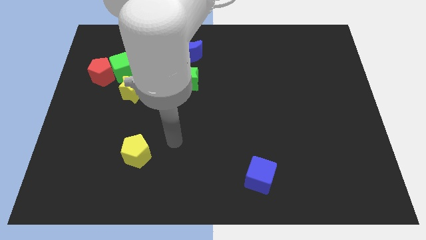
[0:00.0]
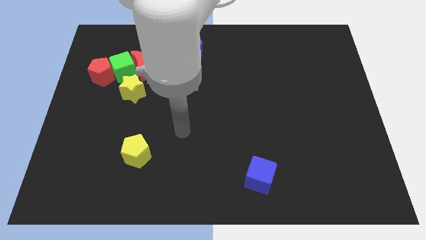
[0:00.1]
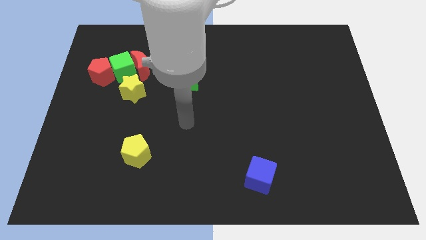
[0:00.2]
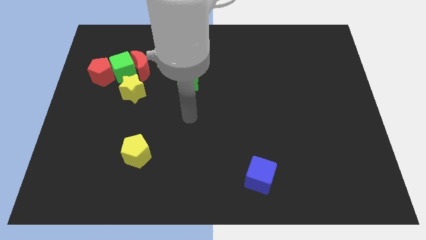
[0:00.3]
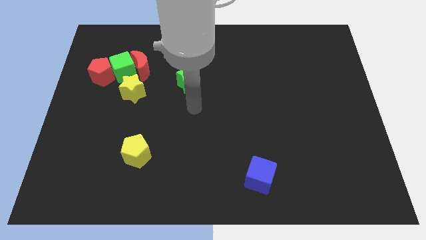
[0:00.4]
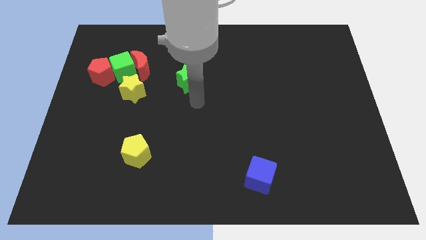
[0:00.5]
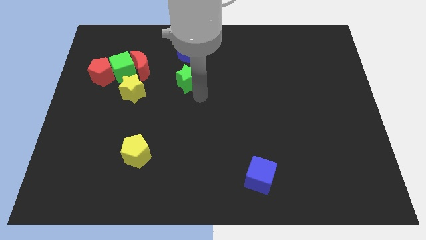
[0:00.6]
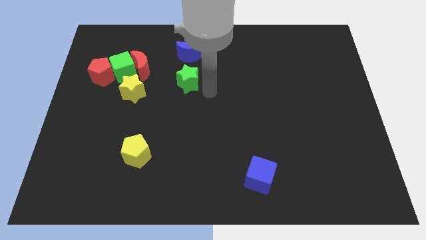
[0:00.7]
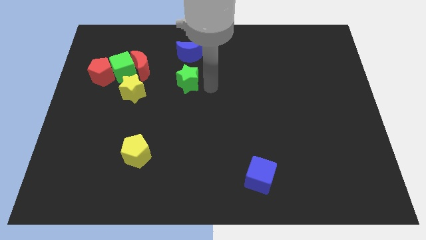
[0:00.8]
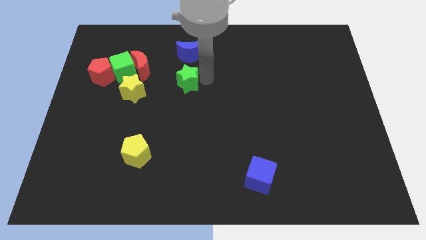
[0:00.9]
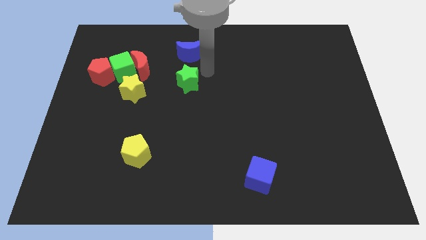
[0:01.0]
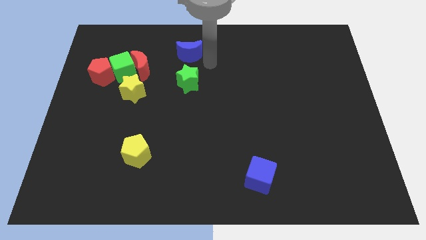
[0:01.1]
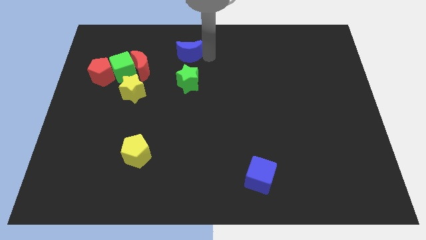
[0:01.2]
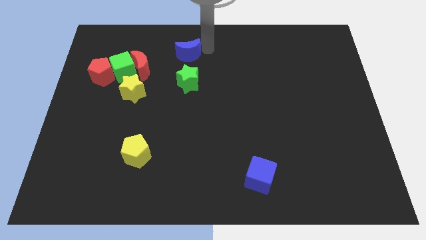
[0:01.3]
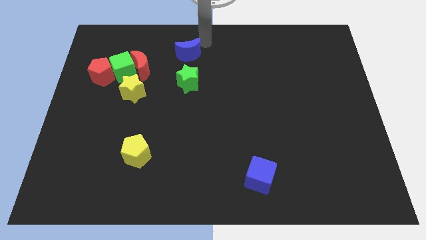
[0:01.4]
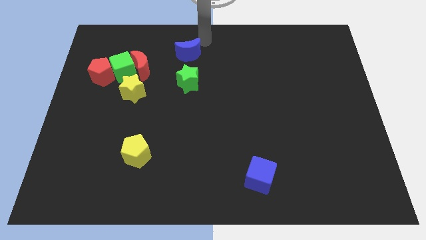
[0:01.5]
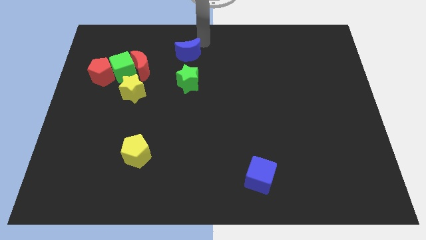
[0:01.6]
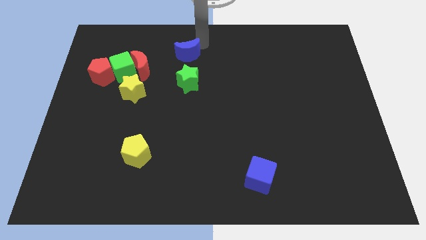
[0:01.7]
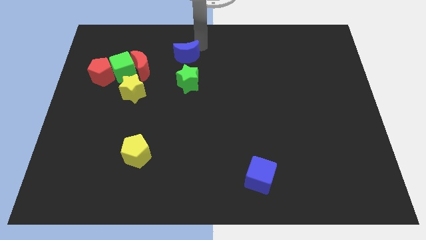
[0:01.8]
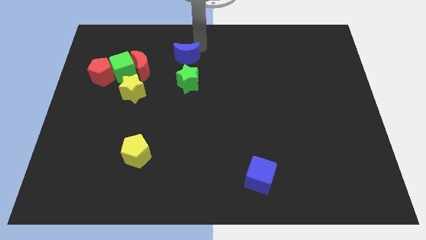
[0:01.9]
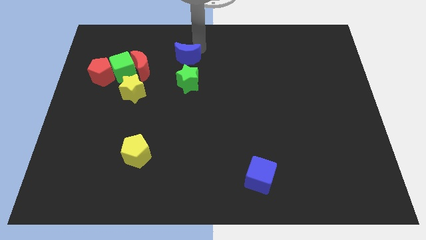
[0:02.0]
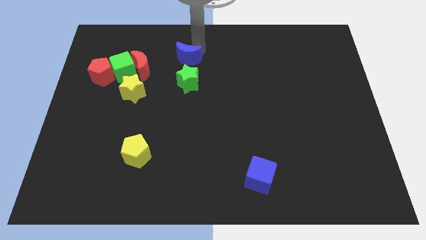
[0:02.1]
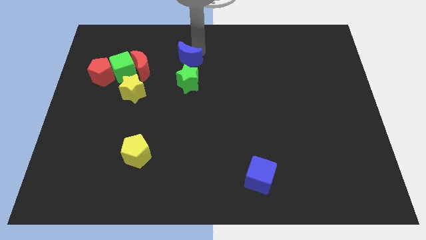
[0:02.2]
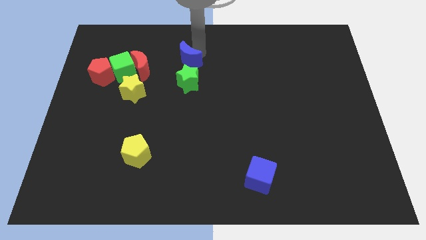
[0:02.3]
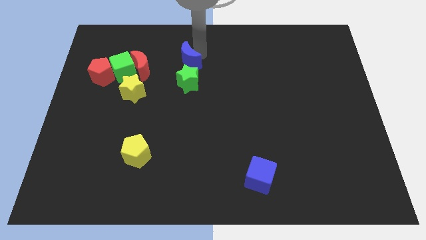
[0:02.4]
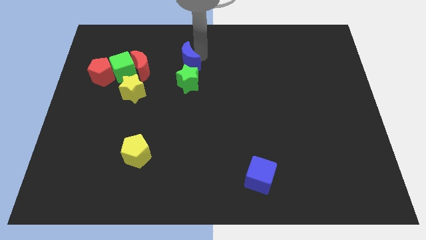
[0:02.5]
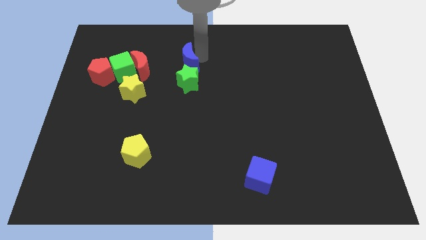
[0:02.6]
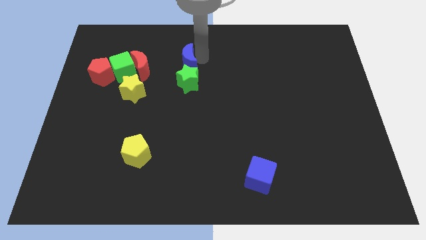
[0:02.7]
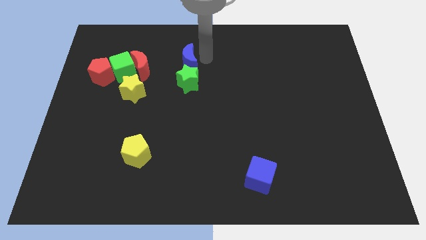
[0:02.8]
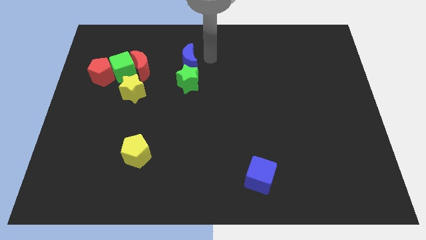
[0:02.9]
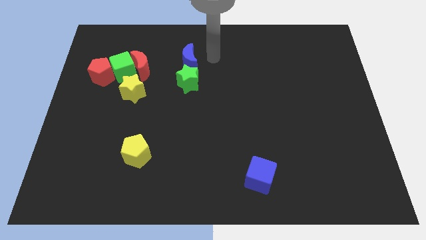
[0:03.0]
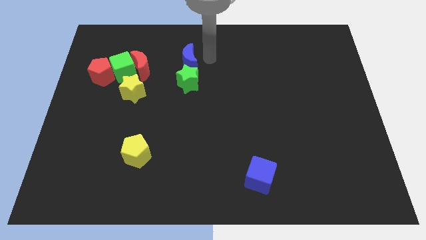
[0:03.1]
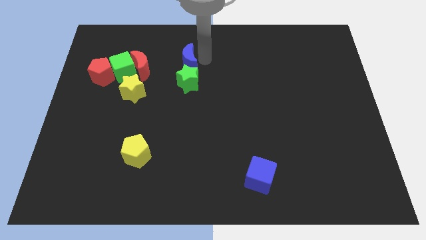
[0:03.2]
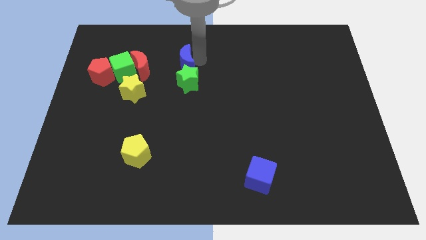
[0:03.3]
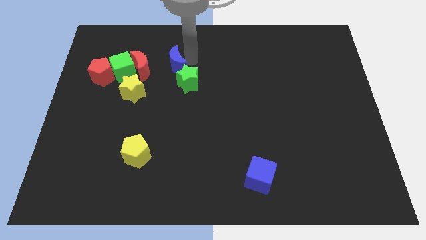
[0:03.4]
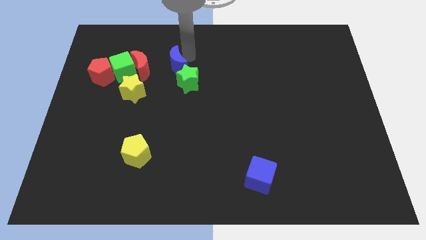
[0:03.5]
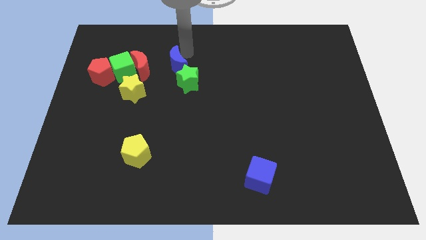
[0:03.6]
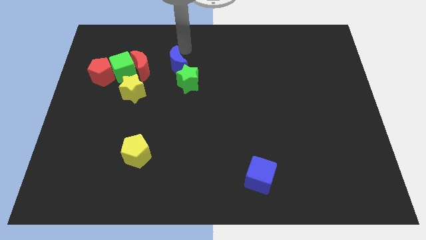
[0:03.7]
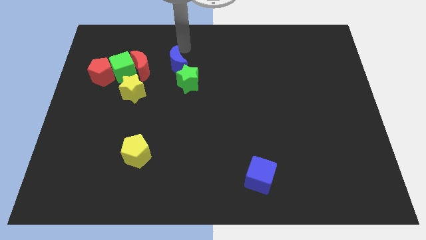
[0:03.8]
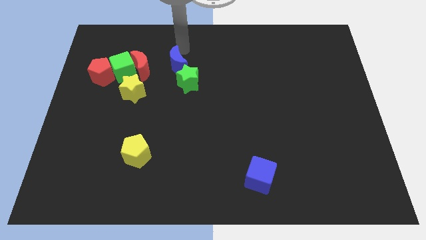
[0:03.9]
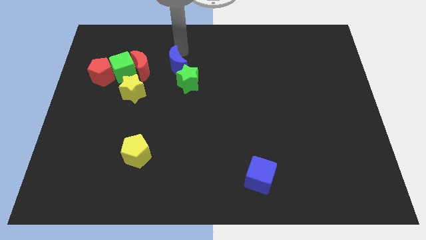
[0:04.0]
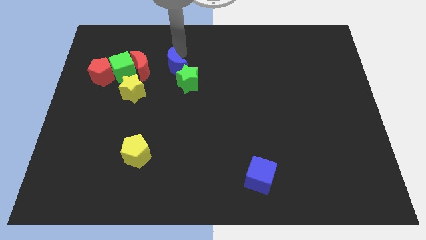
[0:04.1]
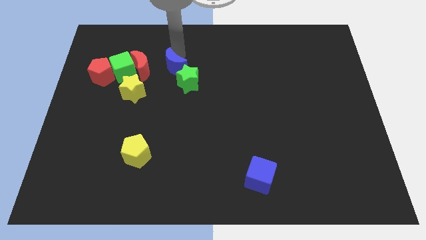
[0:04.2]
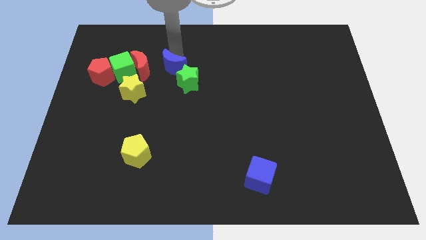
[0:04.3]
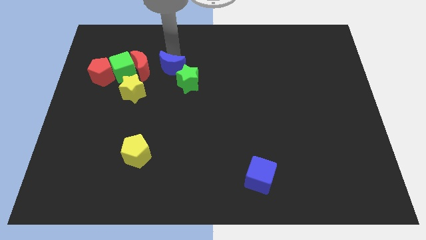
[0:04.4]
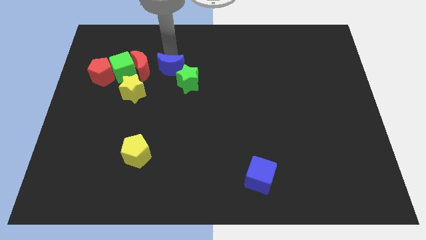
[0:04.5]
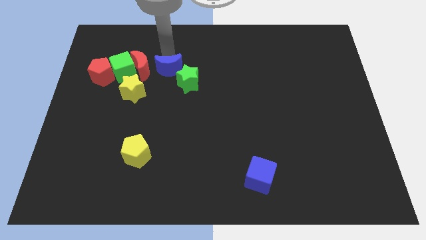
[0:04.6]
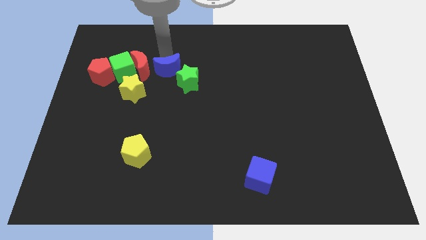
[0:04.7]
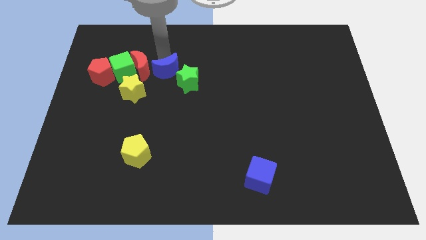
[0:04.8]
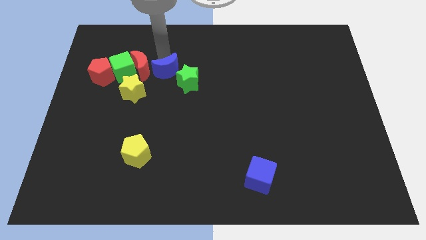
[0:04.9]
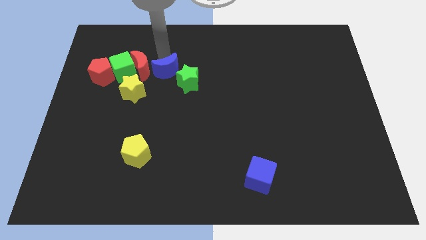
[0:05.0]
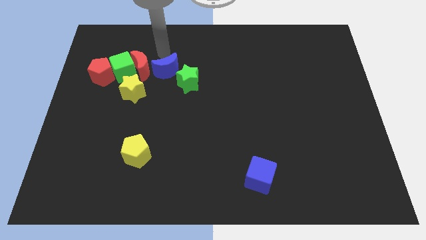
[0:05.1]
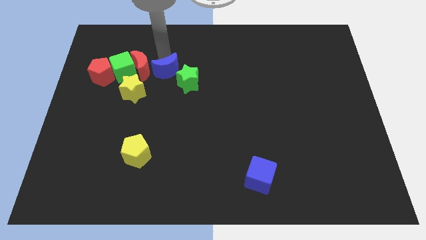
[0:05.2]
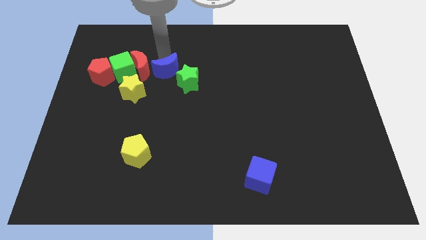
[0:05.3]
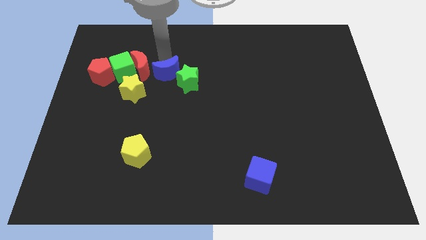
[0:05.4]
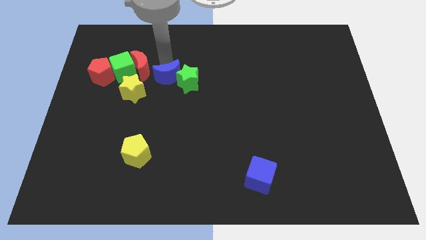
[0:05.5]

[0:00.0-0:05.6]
move the blue moon downwards a little

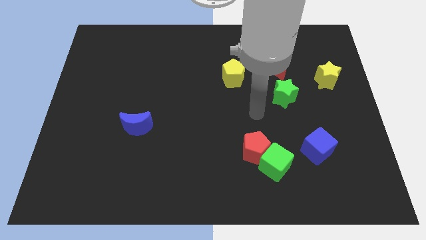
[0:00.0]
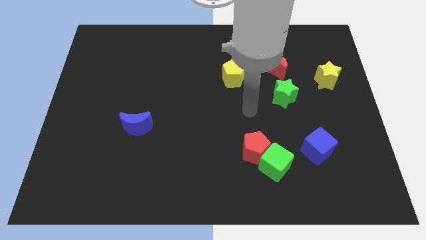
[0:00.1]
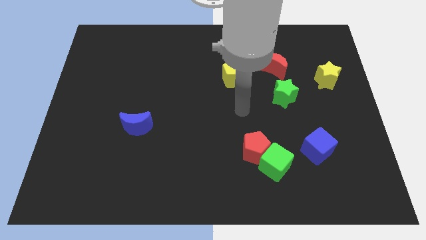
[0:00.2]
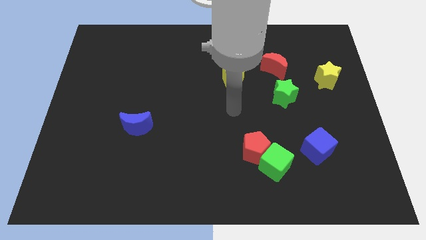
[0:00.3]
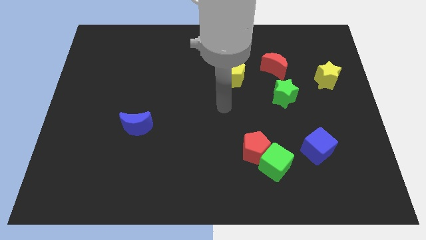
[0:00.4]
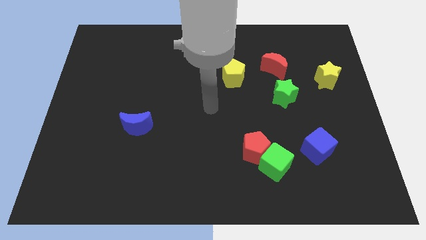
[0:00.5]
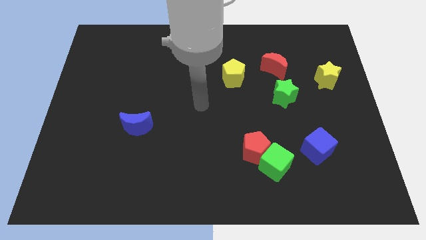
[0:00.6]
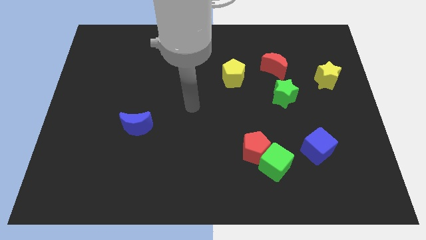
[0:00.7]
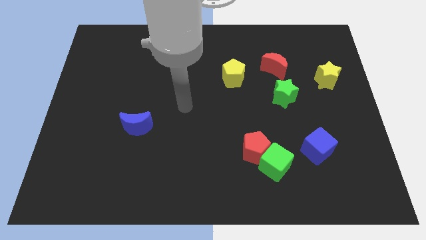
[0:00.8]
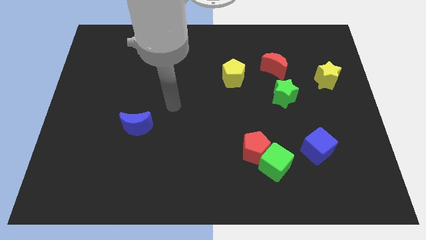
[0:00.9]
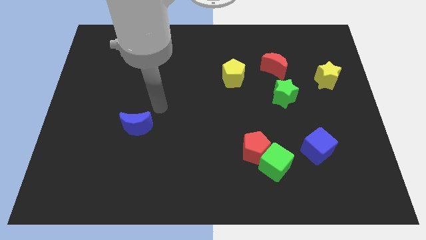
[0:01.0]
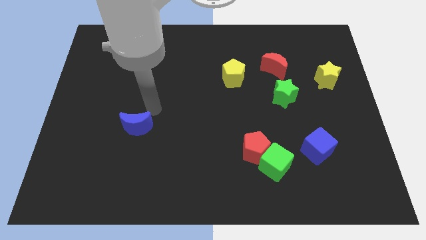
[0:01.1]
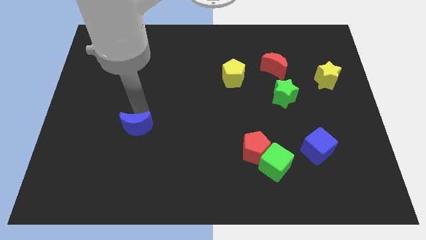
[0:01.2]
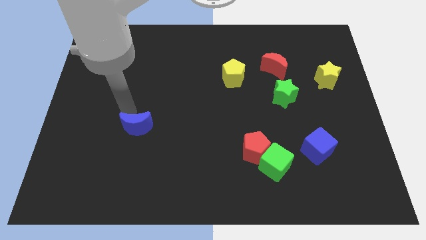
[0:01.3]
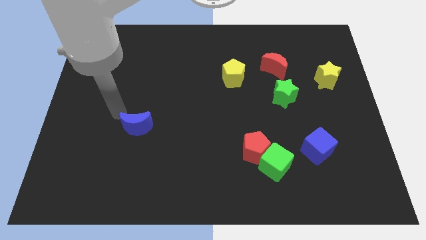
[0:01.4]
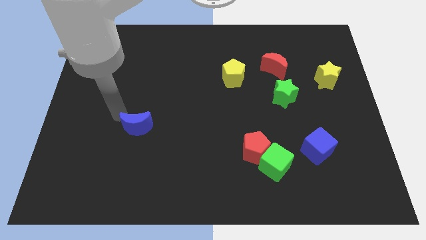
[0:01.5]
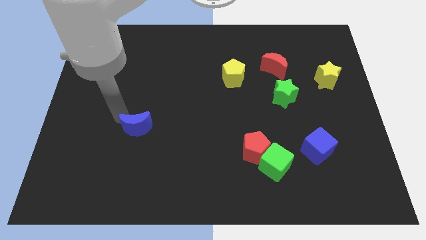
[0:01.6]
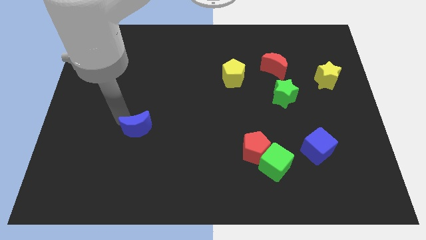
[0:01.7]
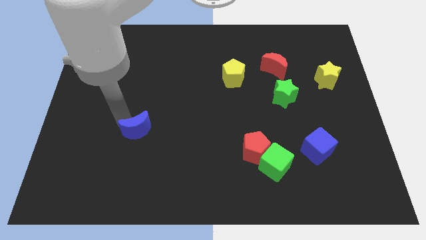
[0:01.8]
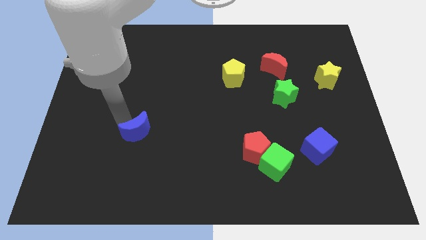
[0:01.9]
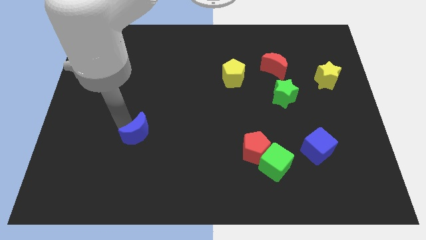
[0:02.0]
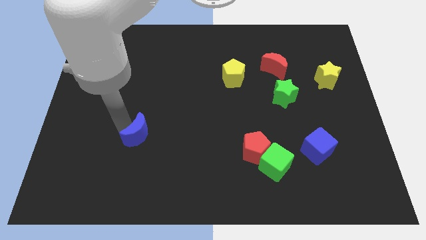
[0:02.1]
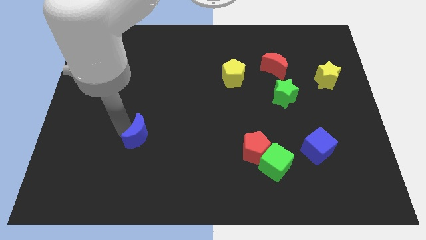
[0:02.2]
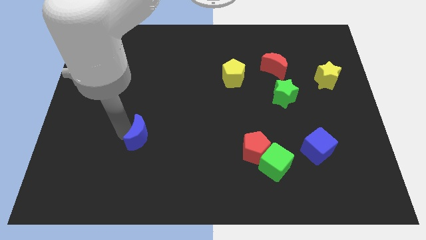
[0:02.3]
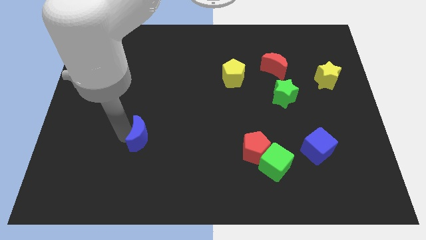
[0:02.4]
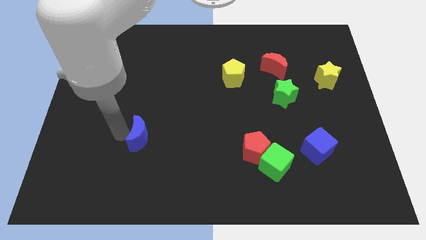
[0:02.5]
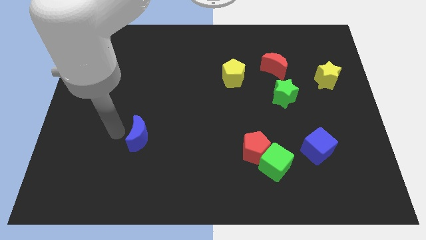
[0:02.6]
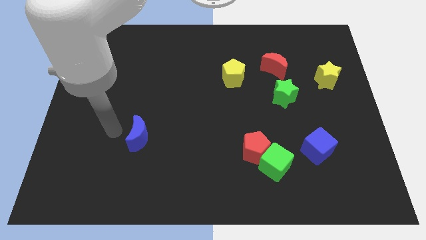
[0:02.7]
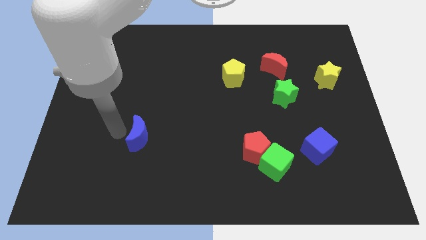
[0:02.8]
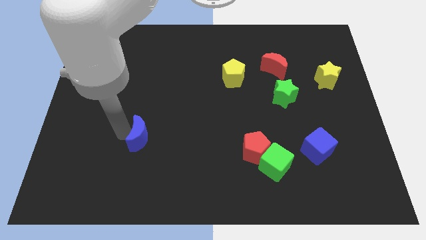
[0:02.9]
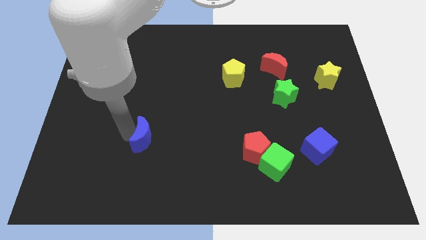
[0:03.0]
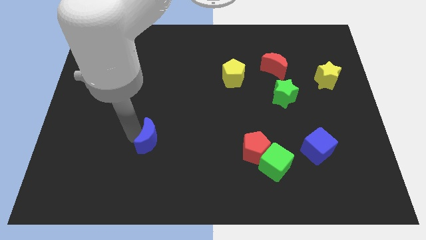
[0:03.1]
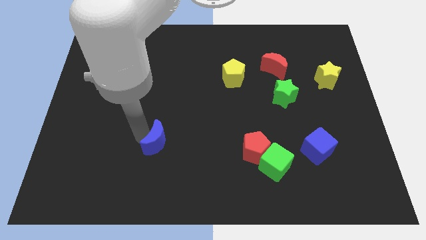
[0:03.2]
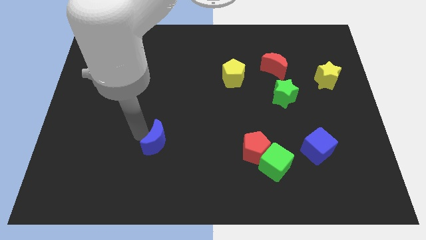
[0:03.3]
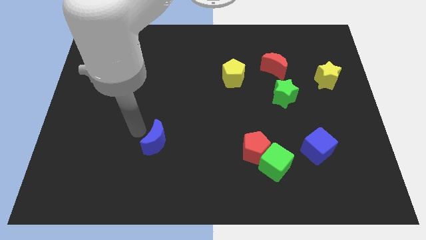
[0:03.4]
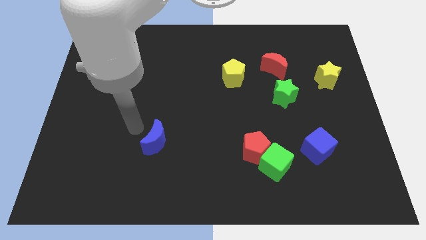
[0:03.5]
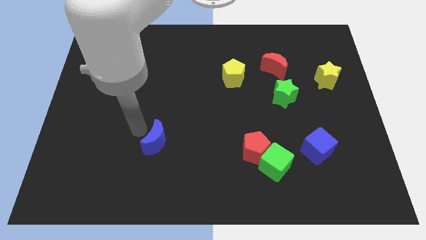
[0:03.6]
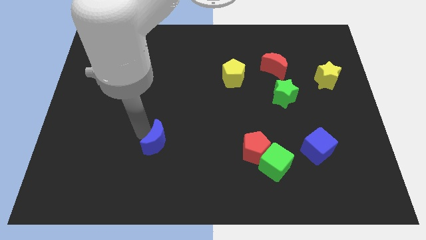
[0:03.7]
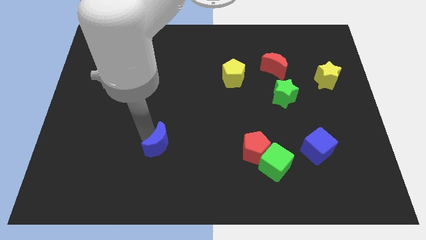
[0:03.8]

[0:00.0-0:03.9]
push the blue moon slightly diagonally downwards and right
